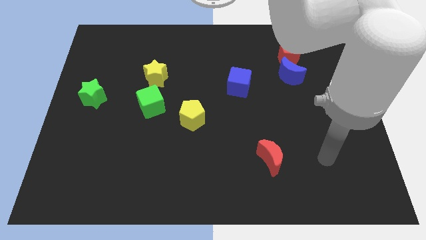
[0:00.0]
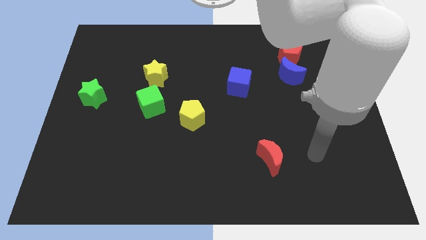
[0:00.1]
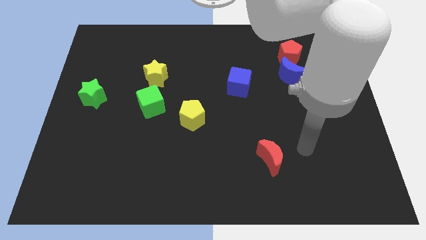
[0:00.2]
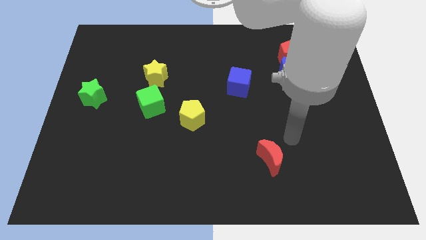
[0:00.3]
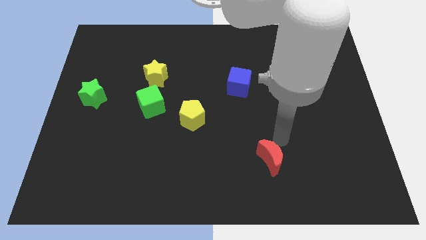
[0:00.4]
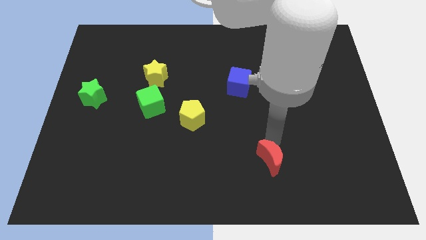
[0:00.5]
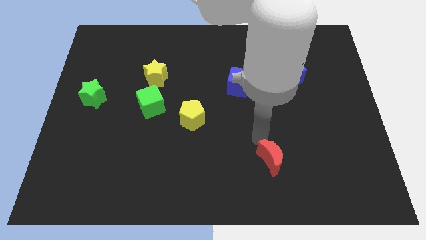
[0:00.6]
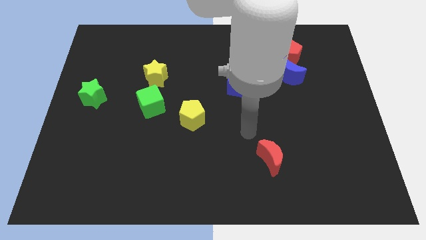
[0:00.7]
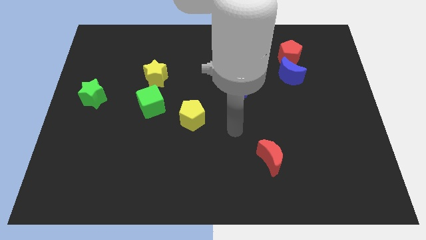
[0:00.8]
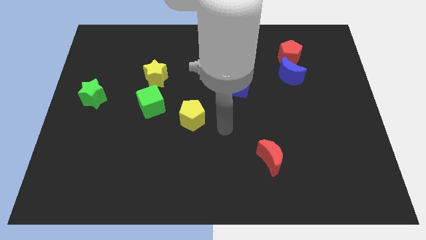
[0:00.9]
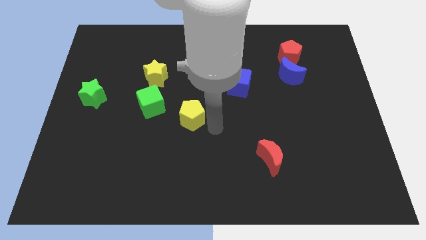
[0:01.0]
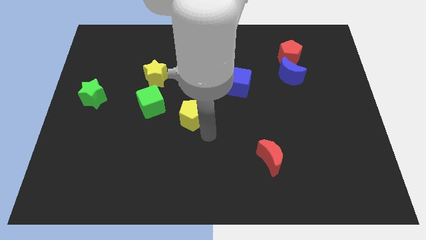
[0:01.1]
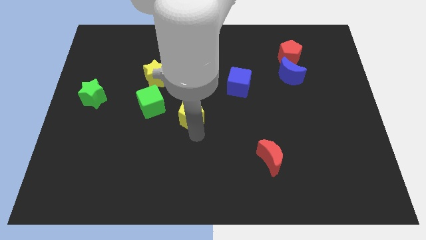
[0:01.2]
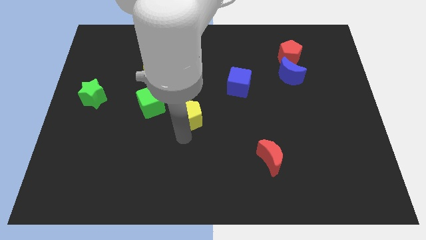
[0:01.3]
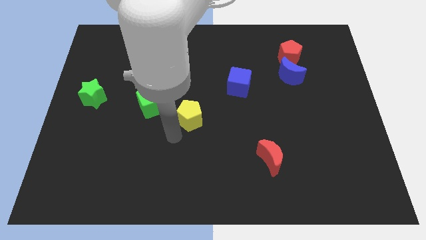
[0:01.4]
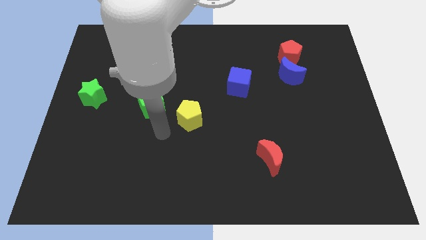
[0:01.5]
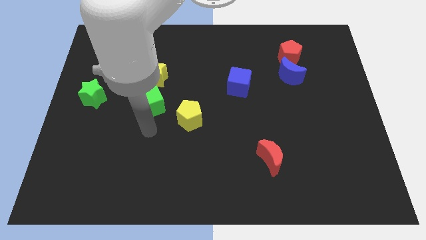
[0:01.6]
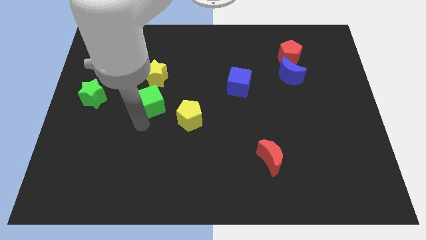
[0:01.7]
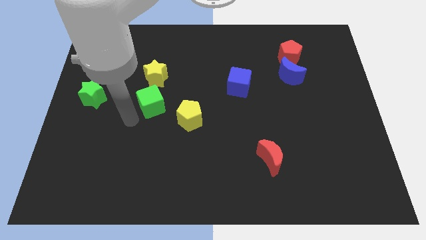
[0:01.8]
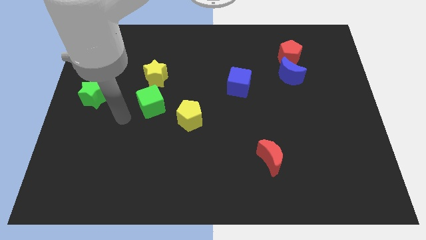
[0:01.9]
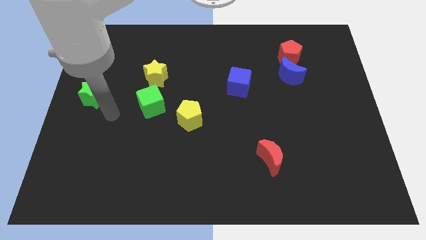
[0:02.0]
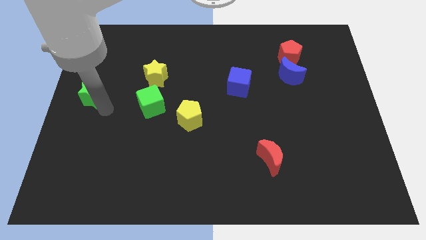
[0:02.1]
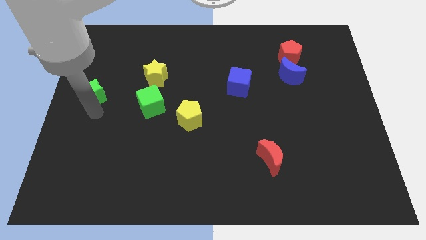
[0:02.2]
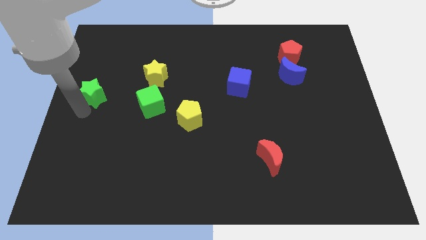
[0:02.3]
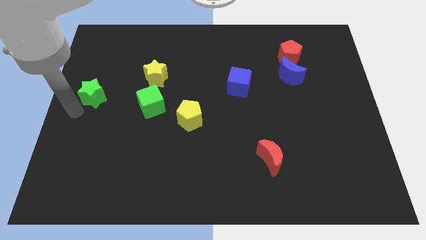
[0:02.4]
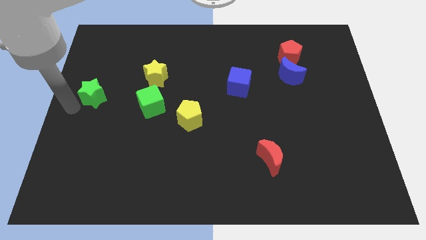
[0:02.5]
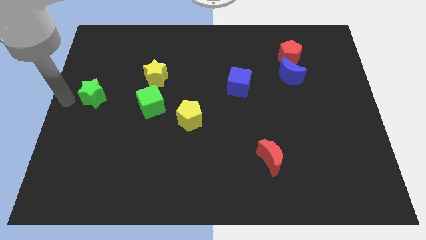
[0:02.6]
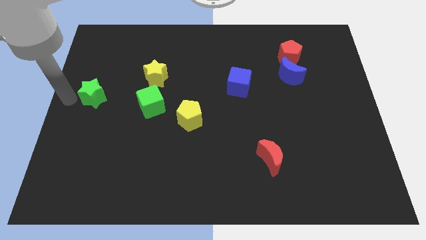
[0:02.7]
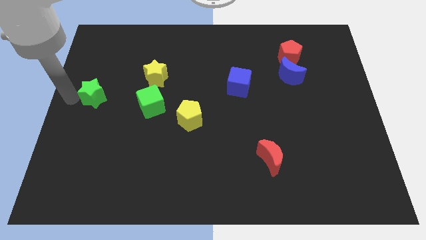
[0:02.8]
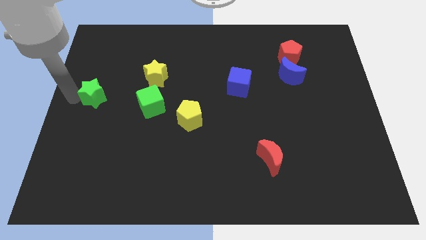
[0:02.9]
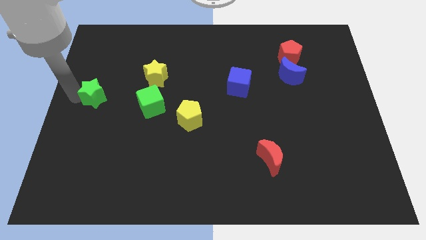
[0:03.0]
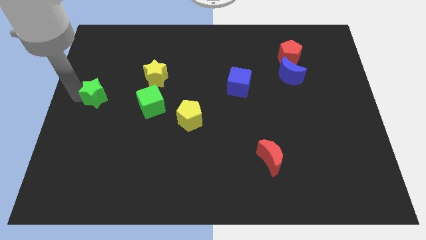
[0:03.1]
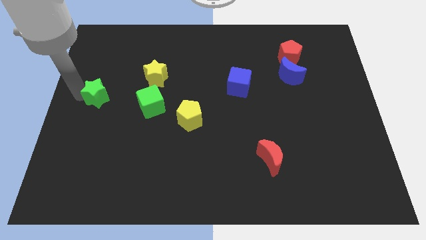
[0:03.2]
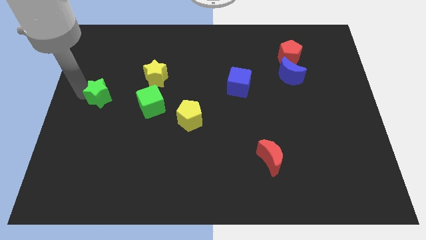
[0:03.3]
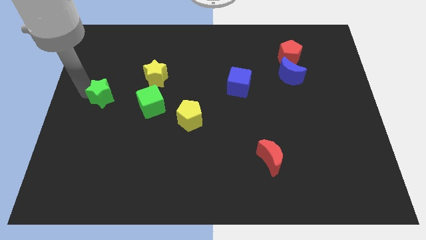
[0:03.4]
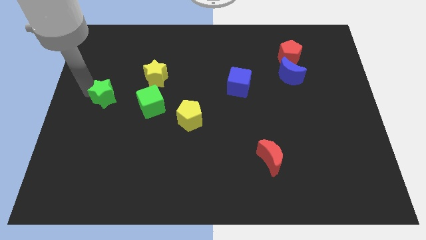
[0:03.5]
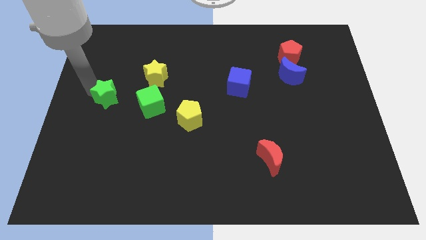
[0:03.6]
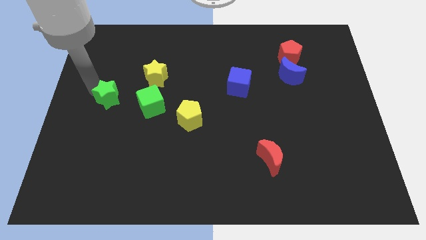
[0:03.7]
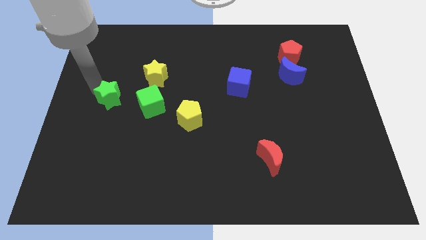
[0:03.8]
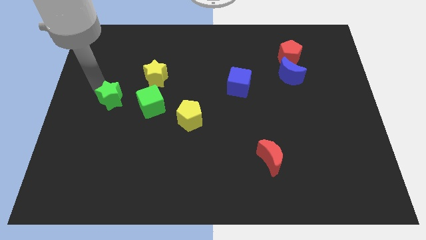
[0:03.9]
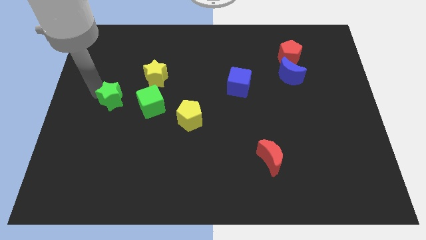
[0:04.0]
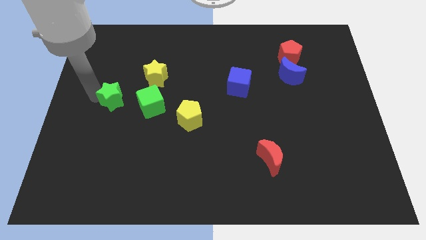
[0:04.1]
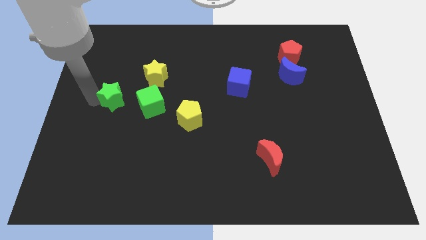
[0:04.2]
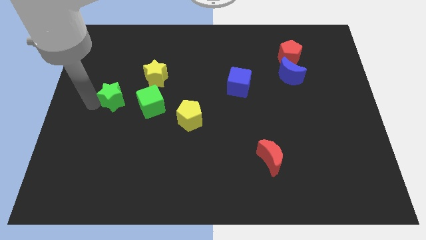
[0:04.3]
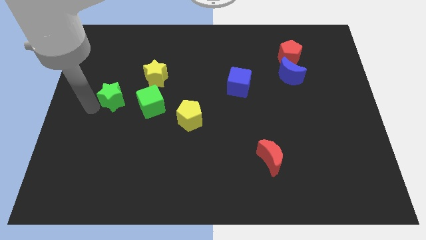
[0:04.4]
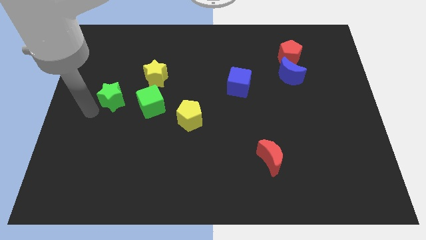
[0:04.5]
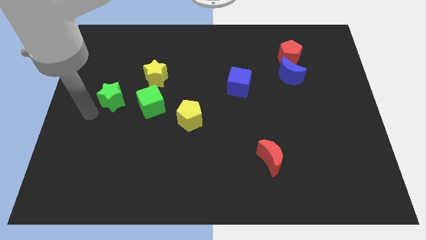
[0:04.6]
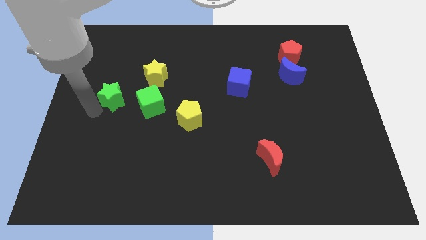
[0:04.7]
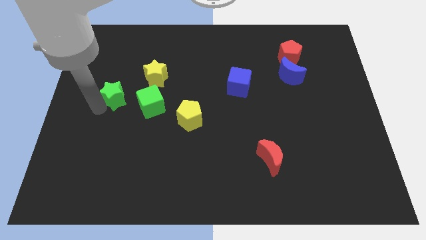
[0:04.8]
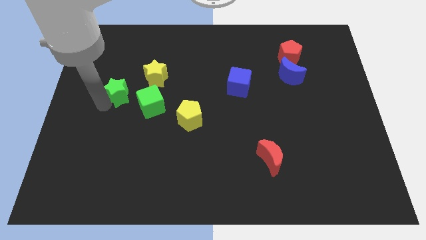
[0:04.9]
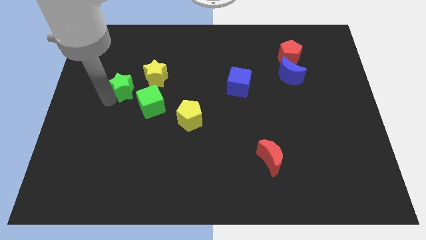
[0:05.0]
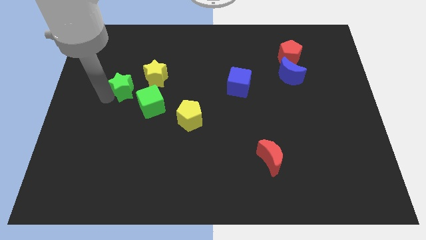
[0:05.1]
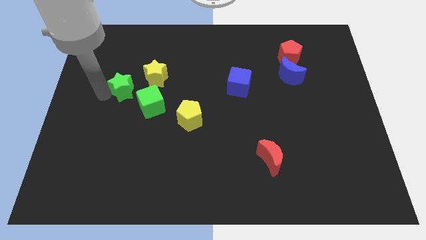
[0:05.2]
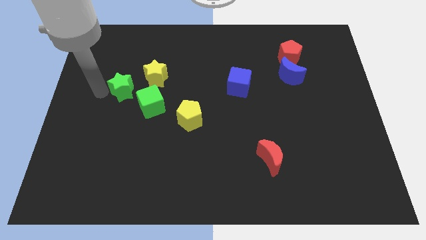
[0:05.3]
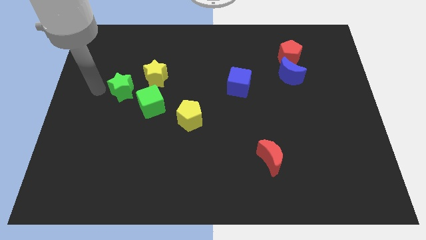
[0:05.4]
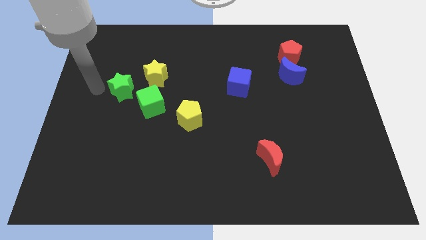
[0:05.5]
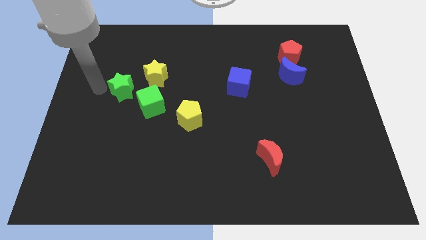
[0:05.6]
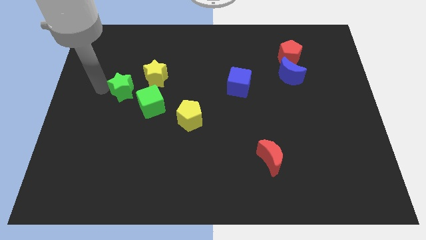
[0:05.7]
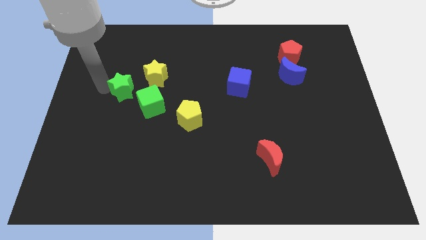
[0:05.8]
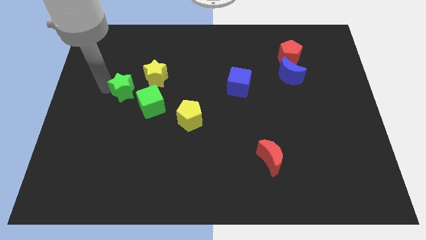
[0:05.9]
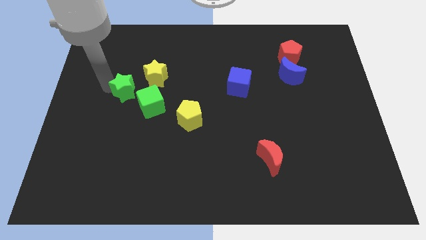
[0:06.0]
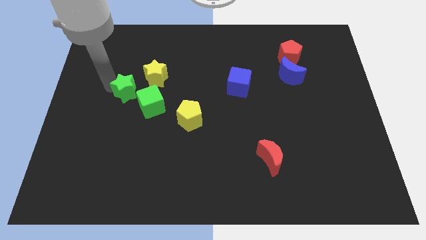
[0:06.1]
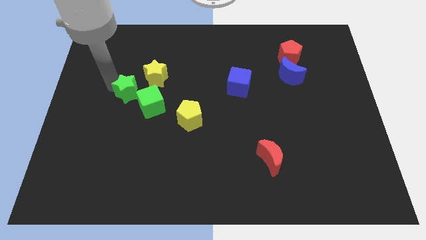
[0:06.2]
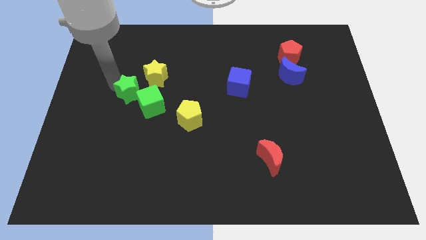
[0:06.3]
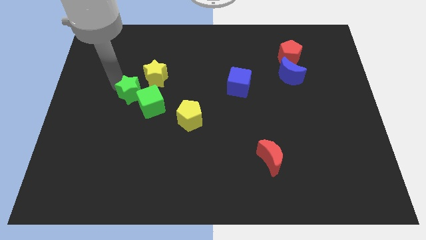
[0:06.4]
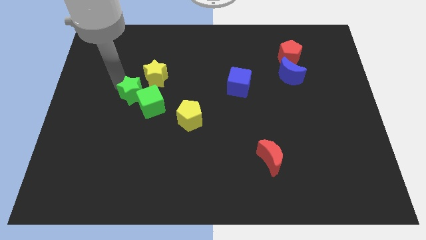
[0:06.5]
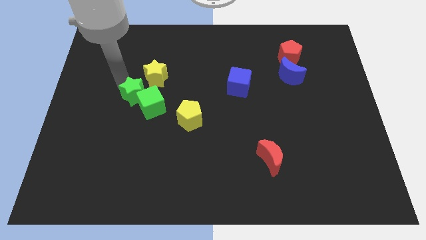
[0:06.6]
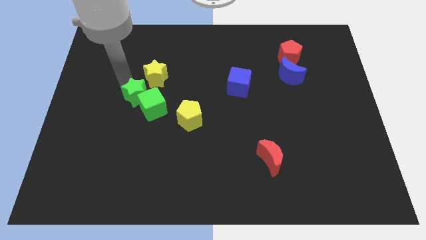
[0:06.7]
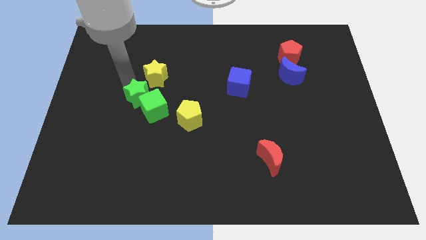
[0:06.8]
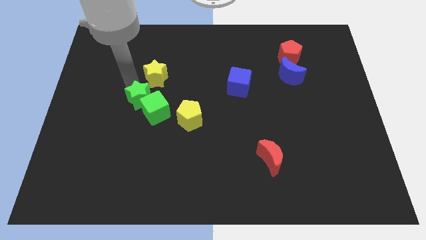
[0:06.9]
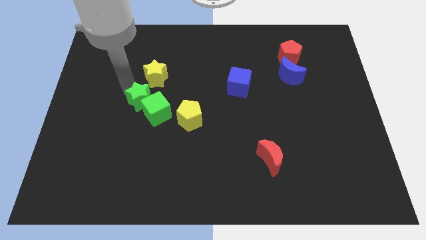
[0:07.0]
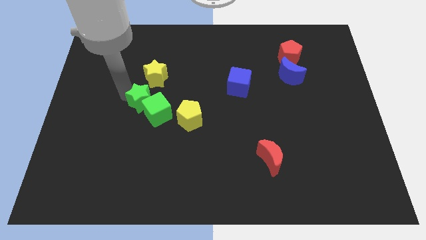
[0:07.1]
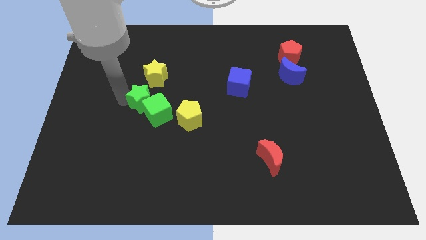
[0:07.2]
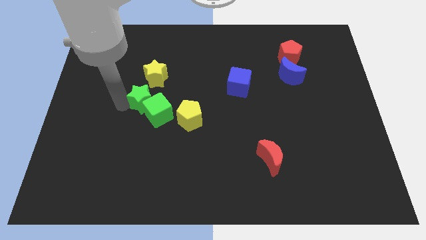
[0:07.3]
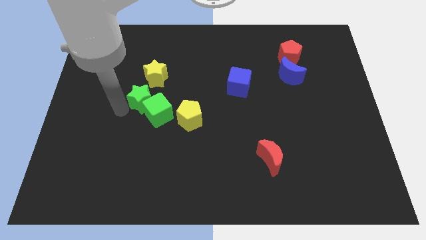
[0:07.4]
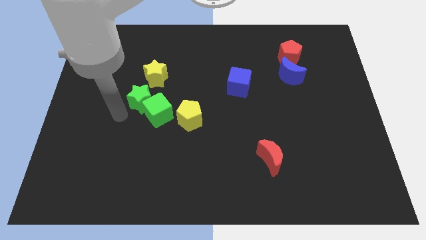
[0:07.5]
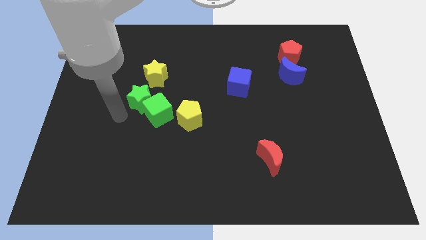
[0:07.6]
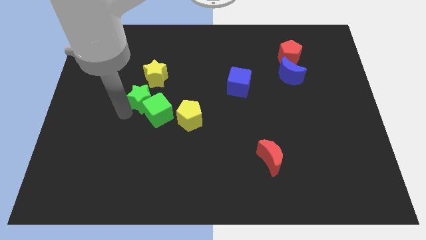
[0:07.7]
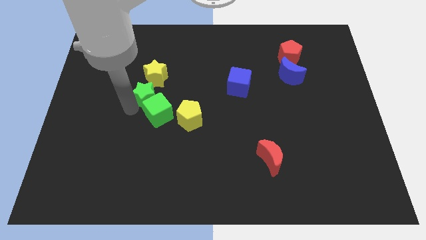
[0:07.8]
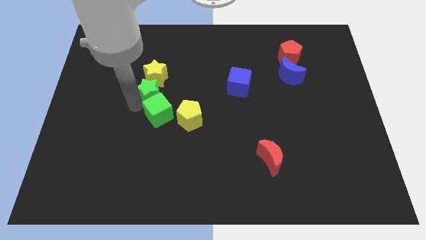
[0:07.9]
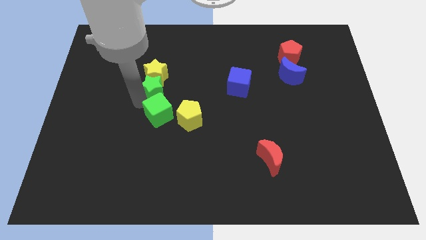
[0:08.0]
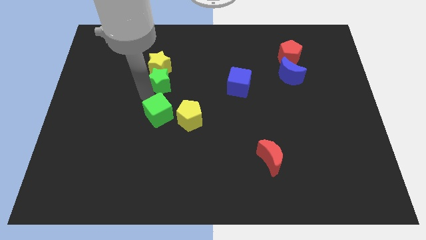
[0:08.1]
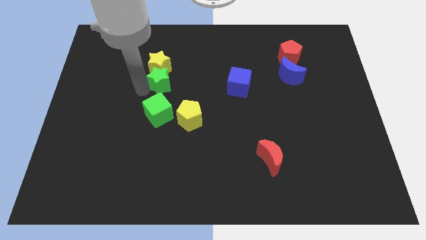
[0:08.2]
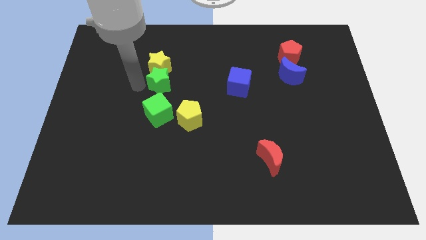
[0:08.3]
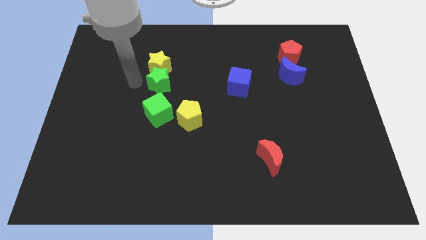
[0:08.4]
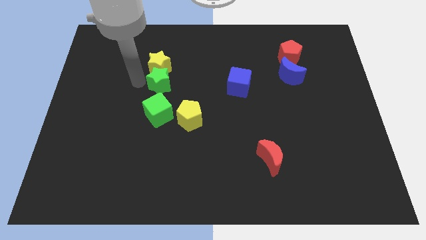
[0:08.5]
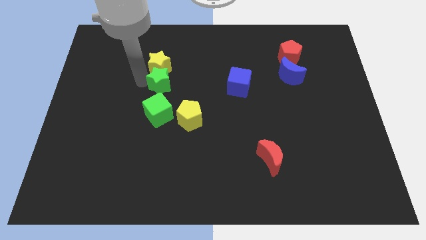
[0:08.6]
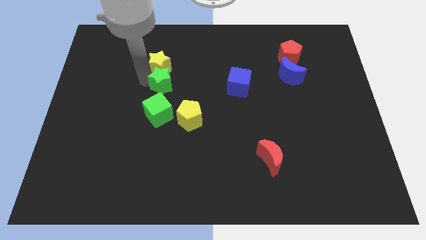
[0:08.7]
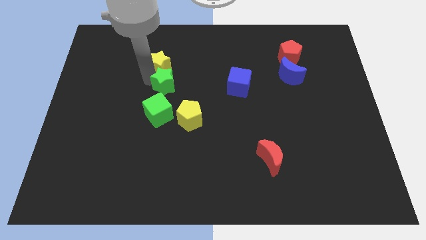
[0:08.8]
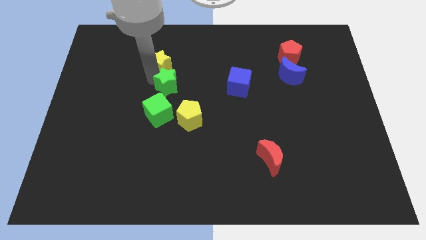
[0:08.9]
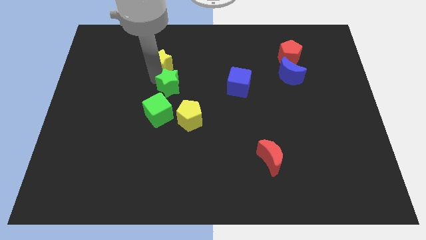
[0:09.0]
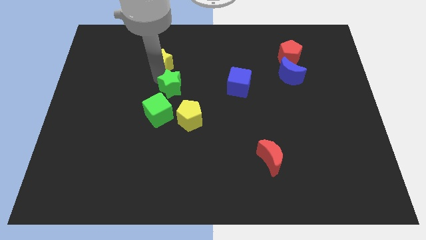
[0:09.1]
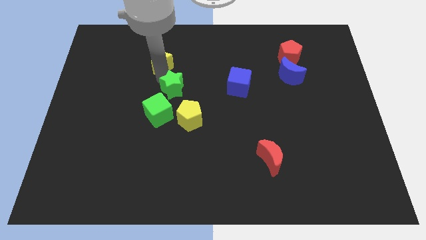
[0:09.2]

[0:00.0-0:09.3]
push the green star just left of the blue cube
